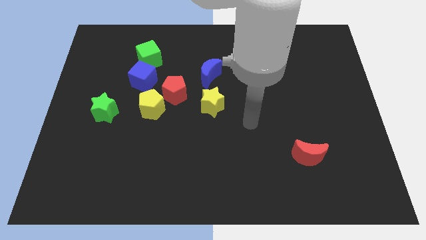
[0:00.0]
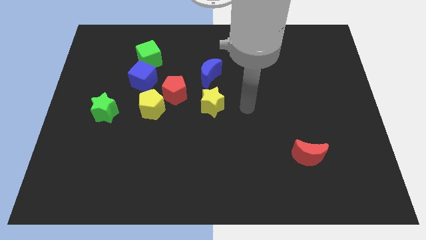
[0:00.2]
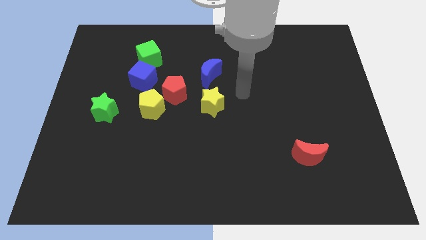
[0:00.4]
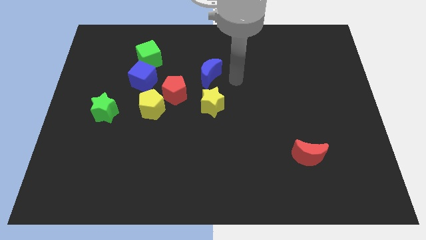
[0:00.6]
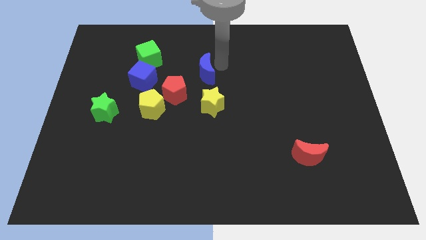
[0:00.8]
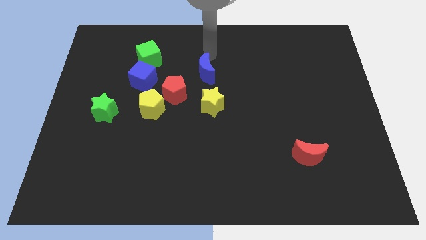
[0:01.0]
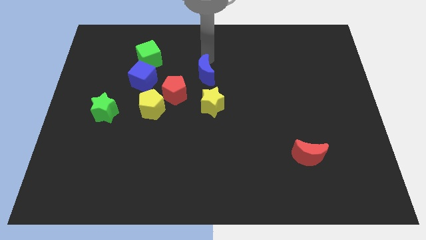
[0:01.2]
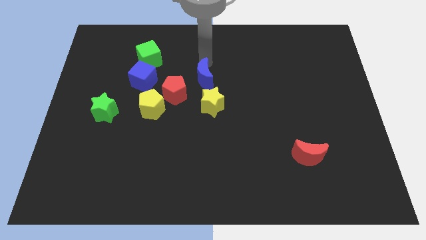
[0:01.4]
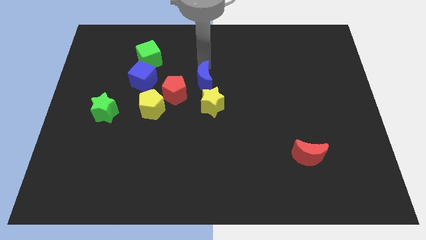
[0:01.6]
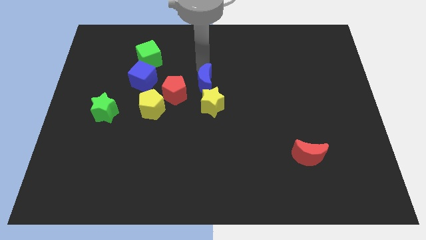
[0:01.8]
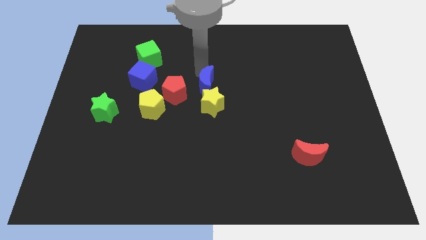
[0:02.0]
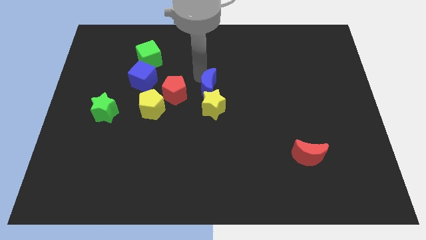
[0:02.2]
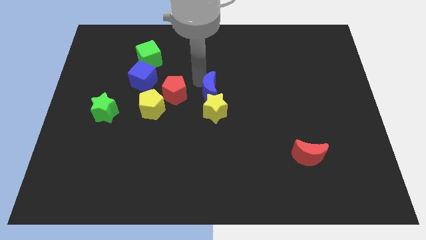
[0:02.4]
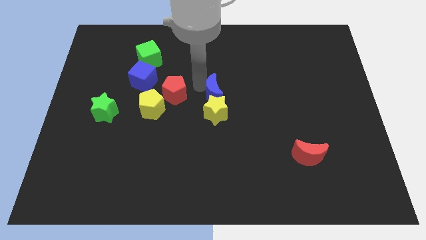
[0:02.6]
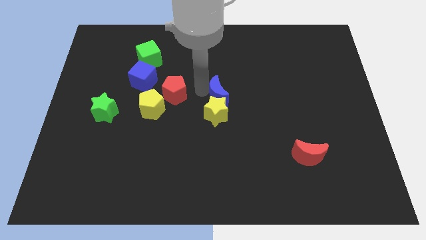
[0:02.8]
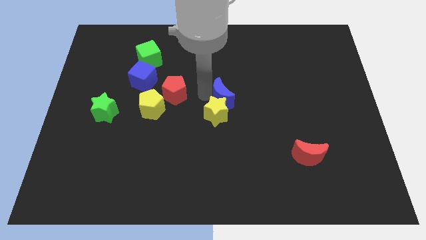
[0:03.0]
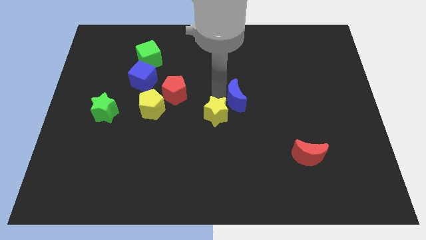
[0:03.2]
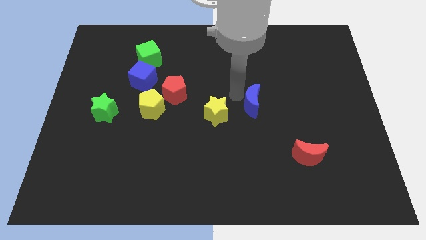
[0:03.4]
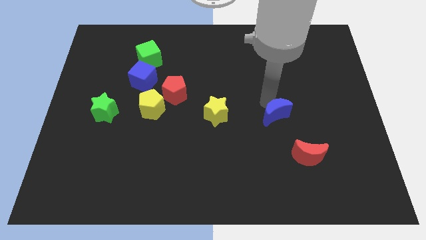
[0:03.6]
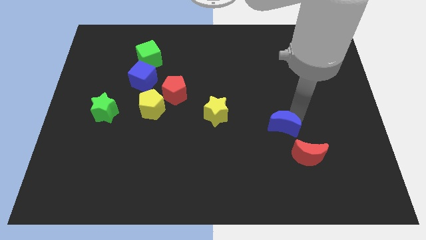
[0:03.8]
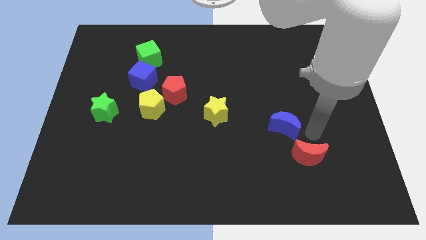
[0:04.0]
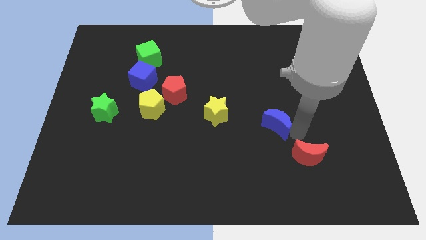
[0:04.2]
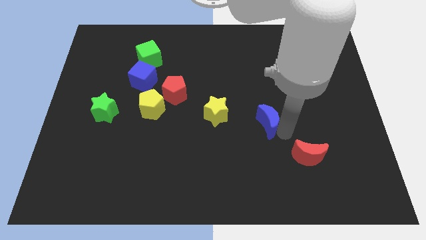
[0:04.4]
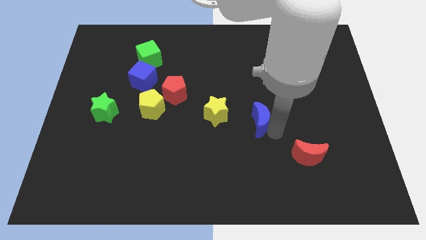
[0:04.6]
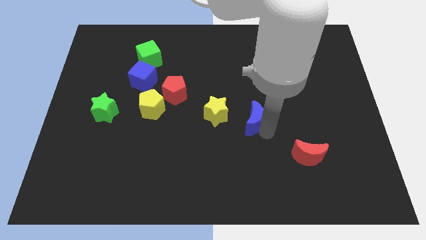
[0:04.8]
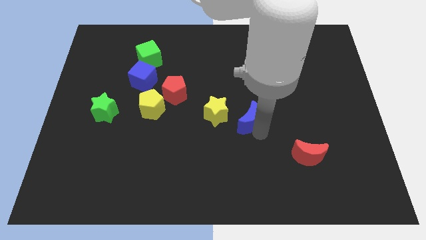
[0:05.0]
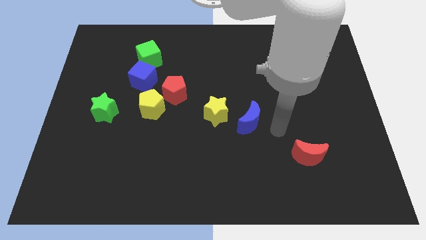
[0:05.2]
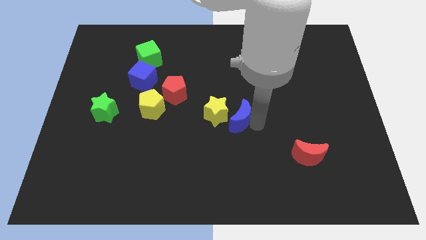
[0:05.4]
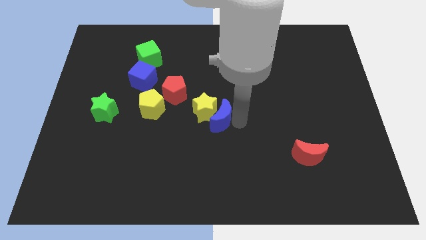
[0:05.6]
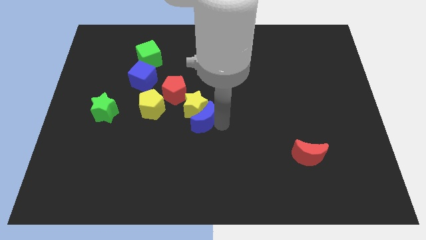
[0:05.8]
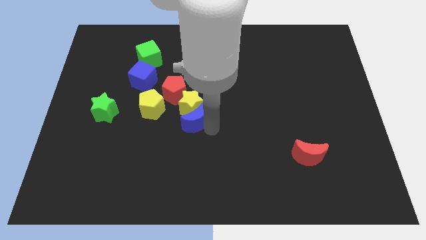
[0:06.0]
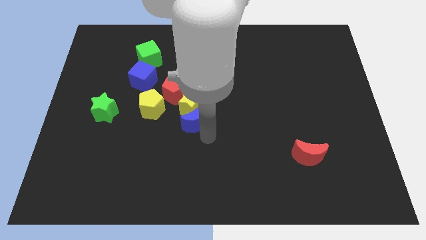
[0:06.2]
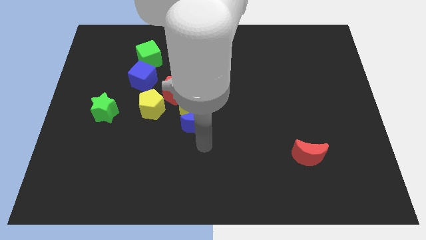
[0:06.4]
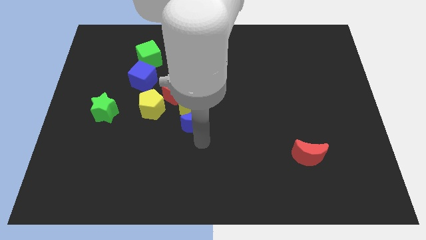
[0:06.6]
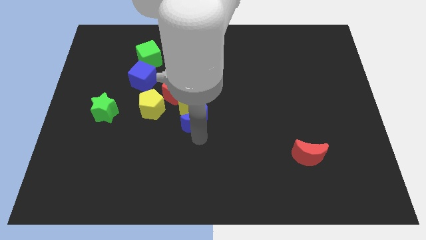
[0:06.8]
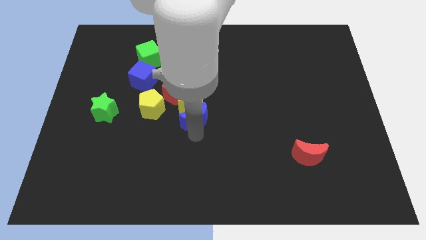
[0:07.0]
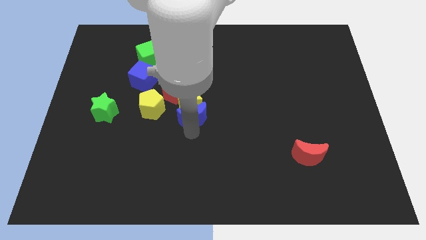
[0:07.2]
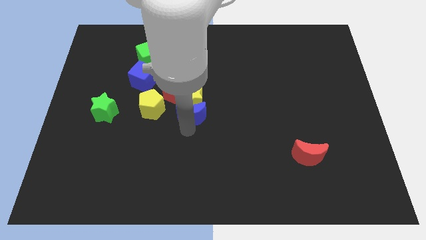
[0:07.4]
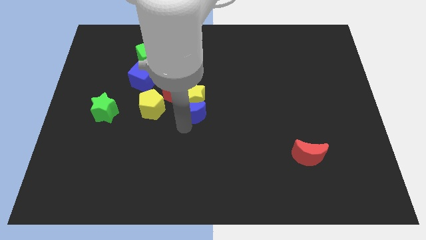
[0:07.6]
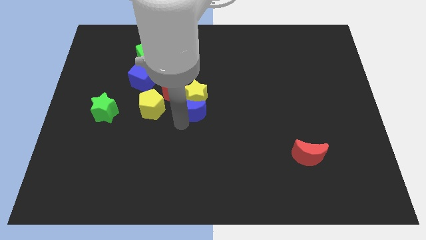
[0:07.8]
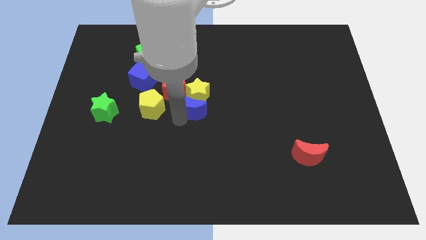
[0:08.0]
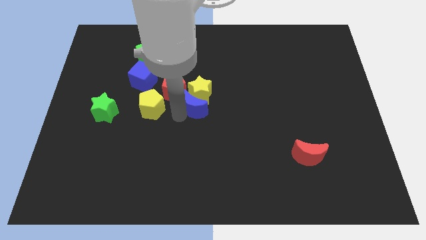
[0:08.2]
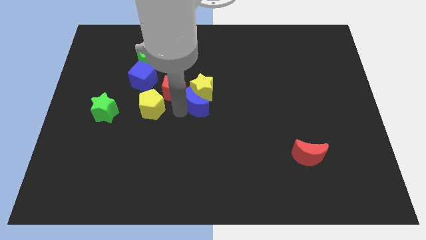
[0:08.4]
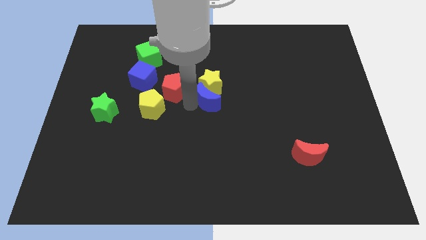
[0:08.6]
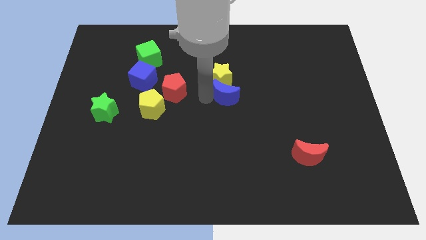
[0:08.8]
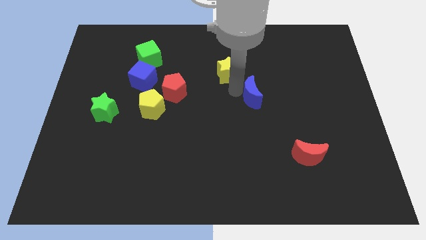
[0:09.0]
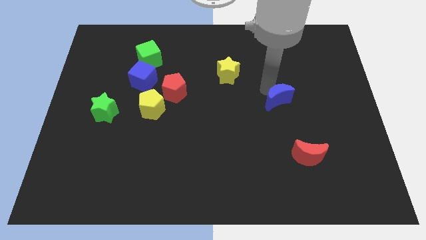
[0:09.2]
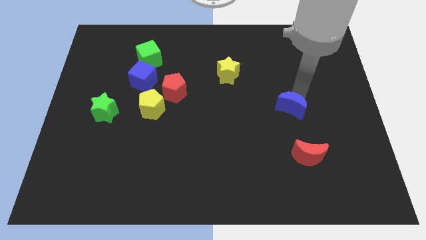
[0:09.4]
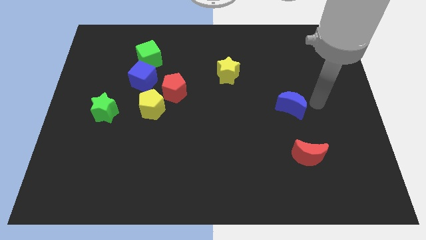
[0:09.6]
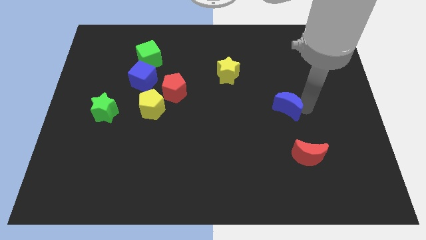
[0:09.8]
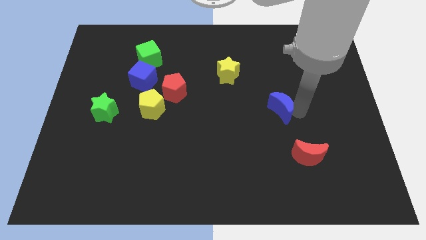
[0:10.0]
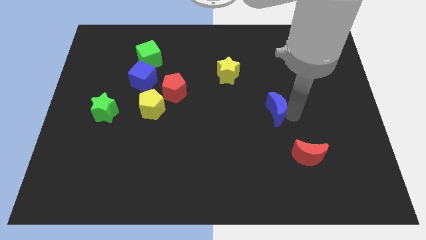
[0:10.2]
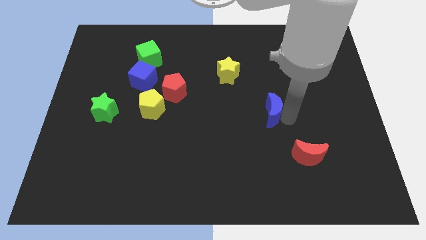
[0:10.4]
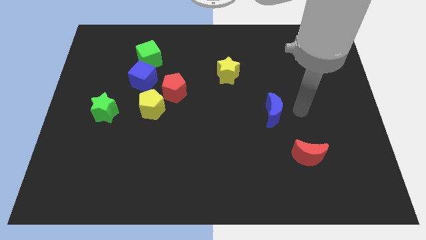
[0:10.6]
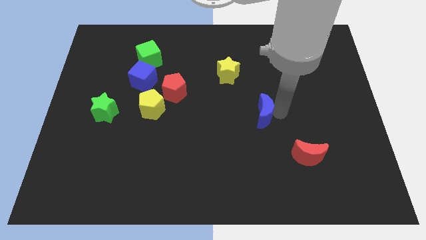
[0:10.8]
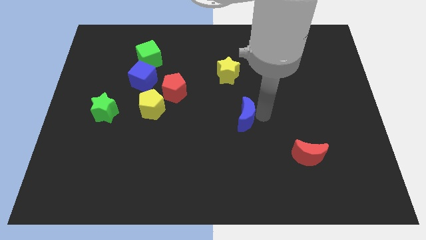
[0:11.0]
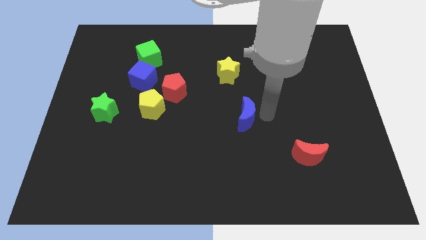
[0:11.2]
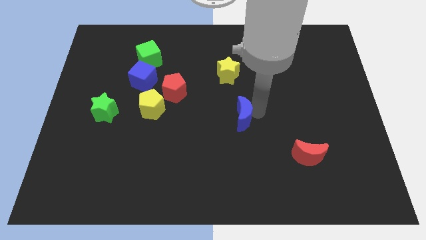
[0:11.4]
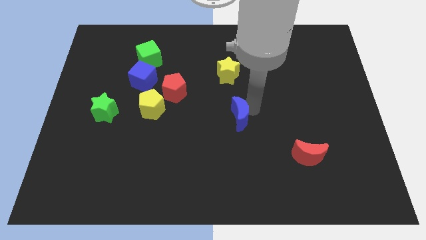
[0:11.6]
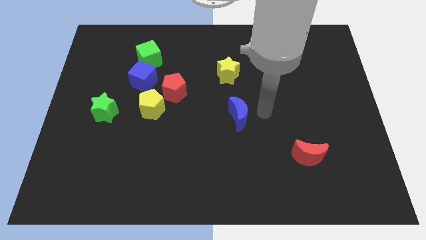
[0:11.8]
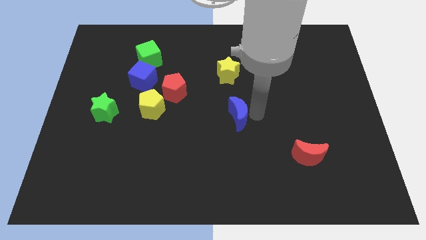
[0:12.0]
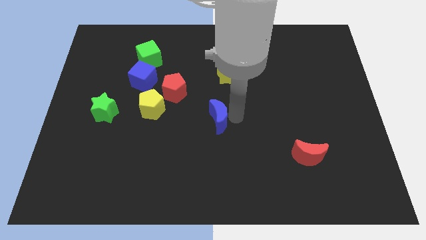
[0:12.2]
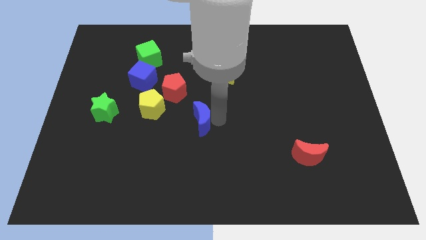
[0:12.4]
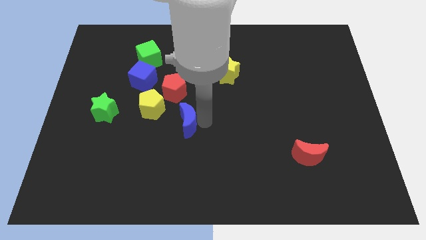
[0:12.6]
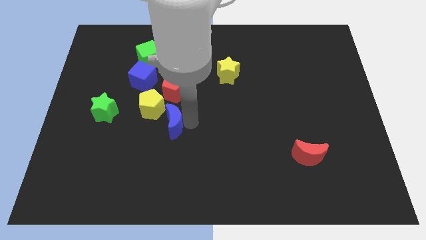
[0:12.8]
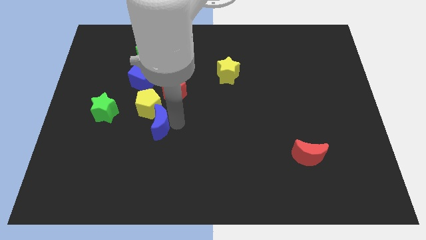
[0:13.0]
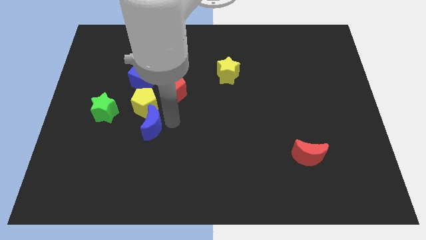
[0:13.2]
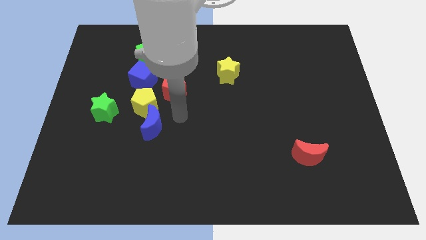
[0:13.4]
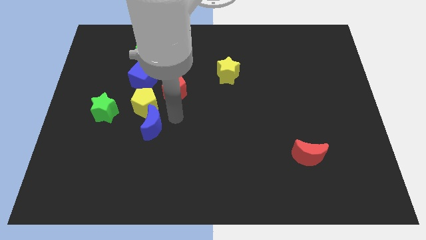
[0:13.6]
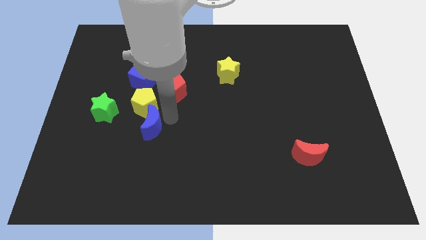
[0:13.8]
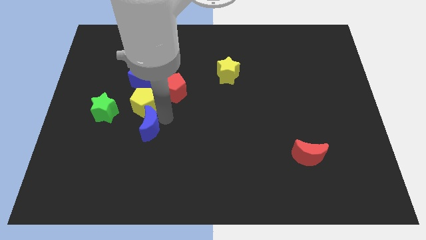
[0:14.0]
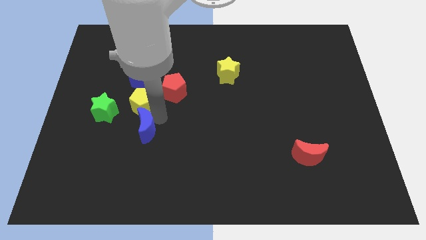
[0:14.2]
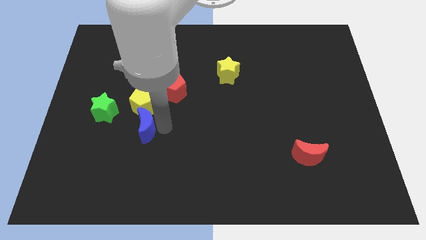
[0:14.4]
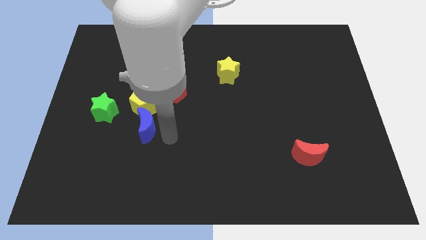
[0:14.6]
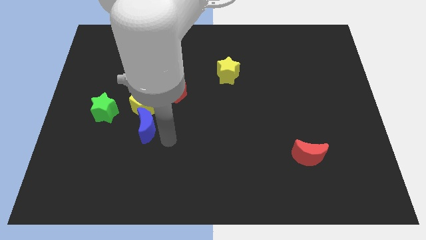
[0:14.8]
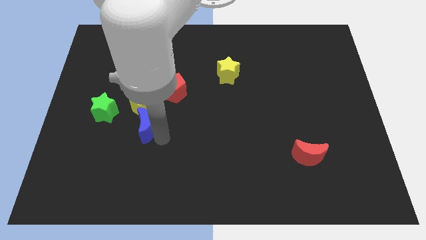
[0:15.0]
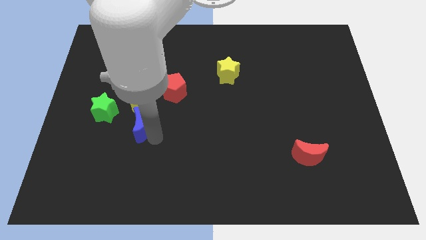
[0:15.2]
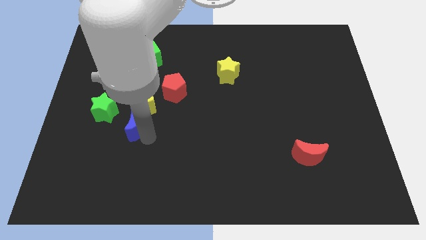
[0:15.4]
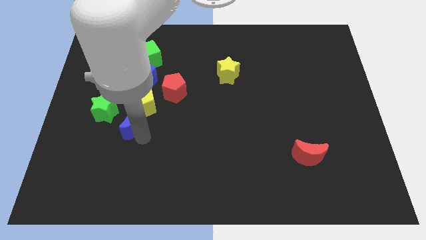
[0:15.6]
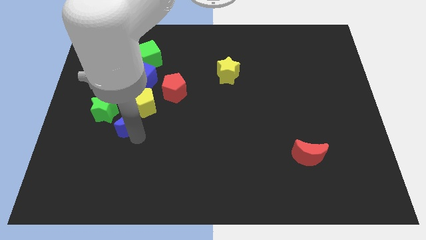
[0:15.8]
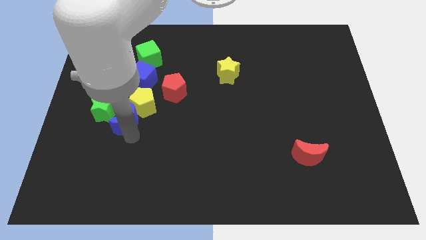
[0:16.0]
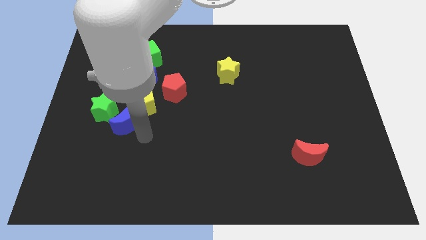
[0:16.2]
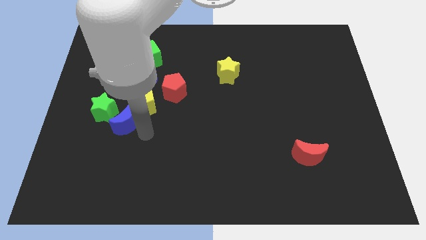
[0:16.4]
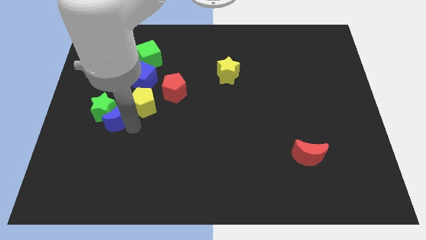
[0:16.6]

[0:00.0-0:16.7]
move the blue moon towards the green star
